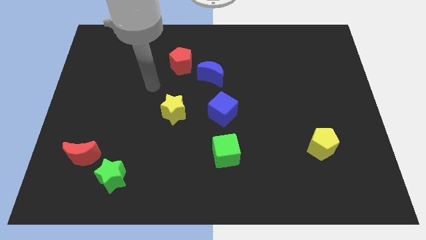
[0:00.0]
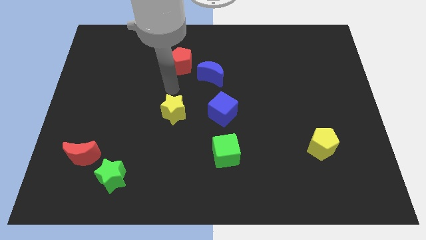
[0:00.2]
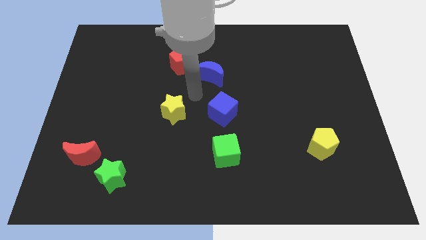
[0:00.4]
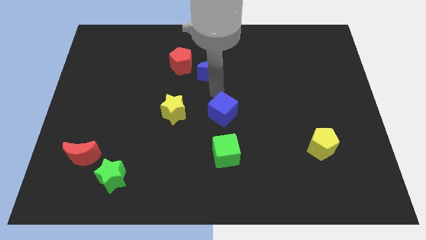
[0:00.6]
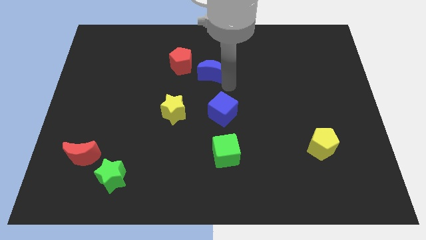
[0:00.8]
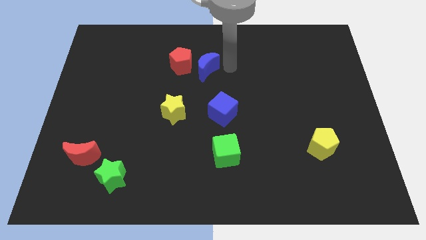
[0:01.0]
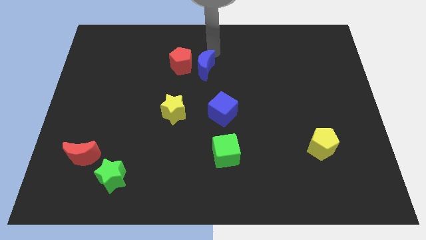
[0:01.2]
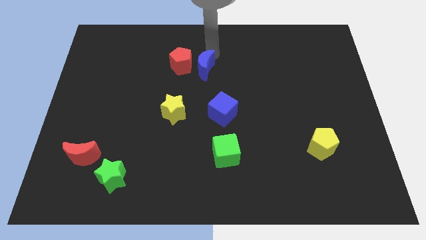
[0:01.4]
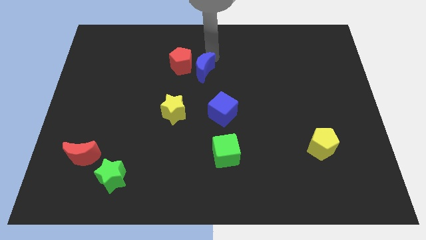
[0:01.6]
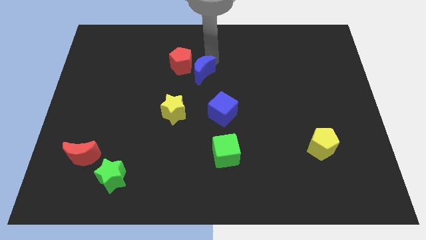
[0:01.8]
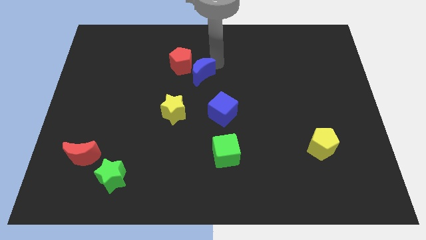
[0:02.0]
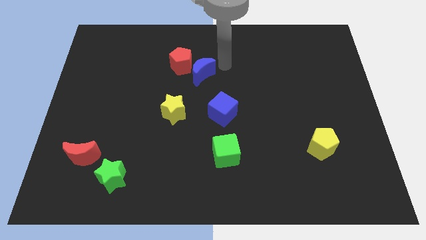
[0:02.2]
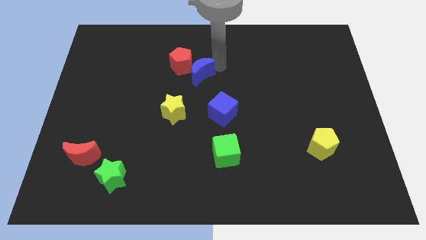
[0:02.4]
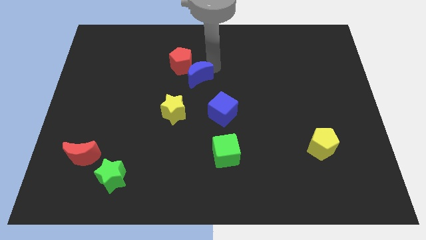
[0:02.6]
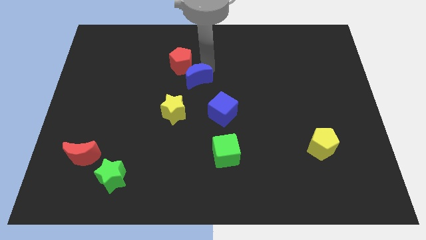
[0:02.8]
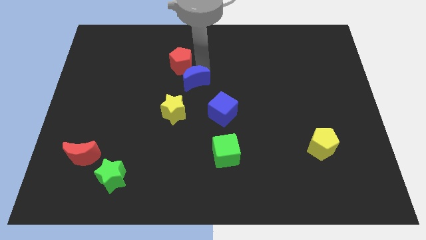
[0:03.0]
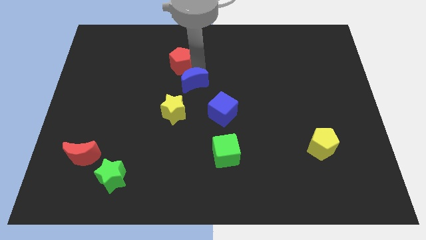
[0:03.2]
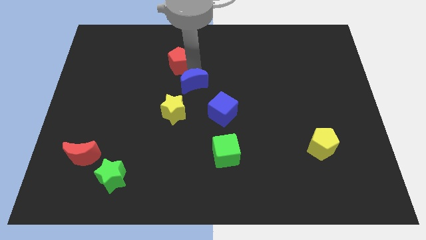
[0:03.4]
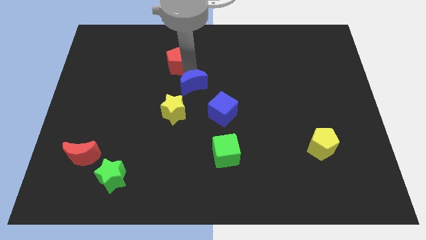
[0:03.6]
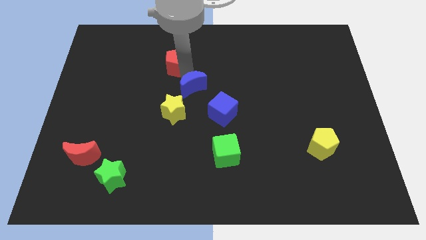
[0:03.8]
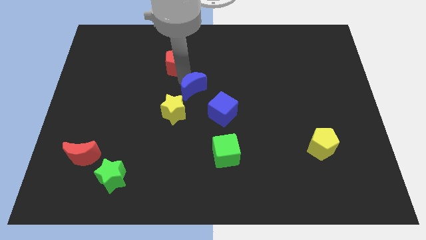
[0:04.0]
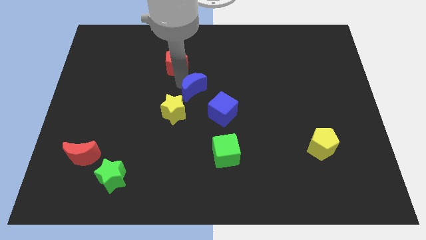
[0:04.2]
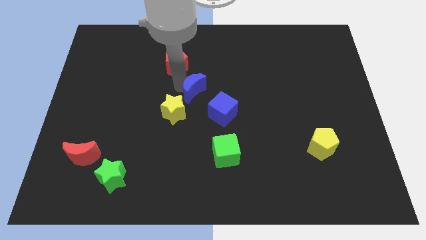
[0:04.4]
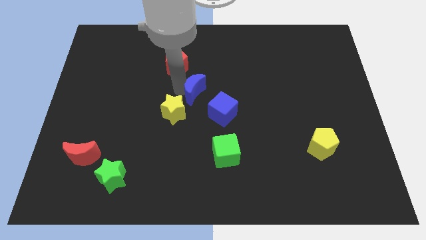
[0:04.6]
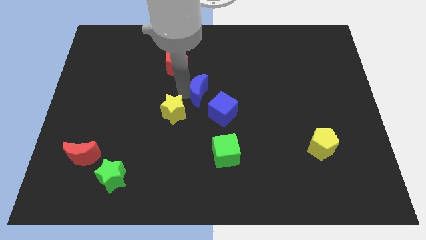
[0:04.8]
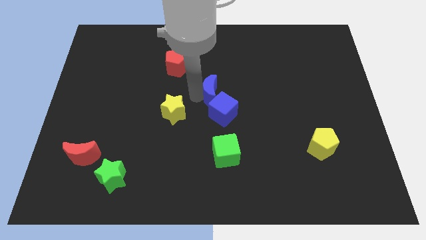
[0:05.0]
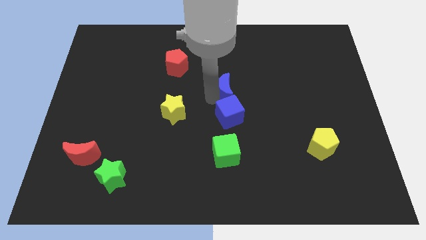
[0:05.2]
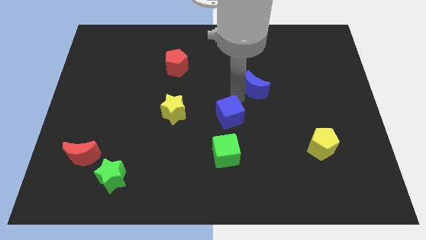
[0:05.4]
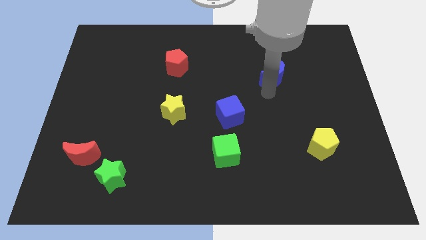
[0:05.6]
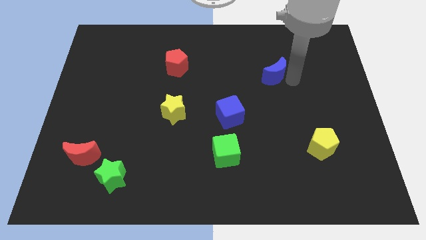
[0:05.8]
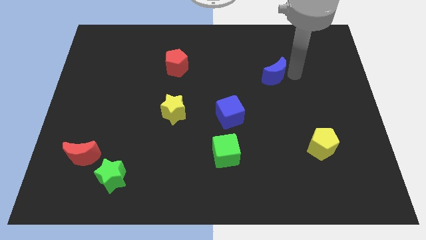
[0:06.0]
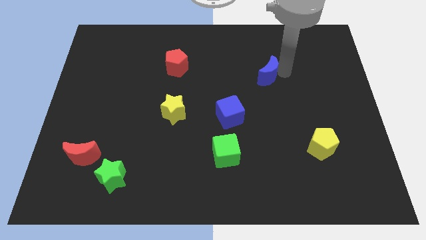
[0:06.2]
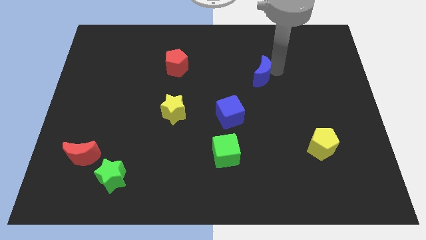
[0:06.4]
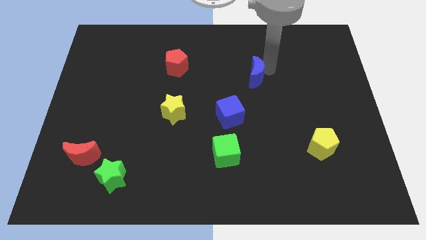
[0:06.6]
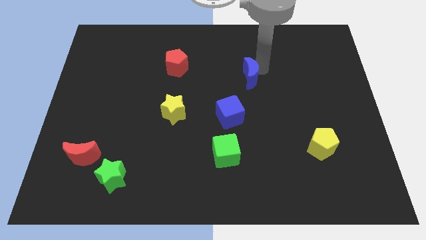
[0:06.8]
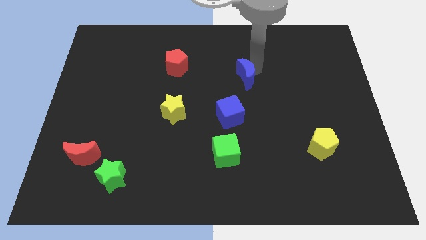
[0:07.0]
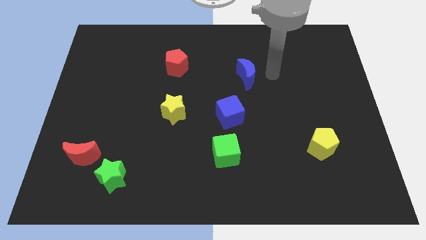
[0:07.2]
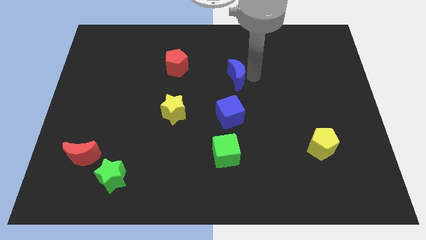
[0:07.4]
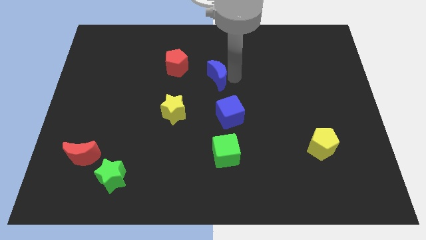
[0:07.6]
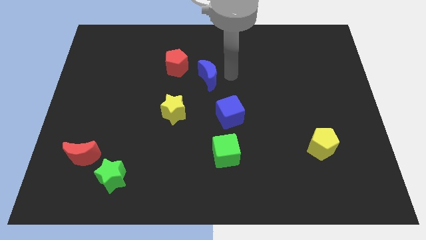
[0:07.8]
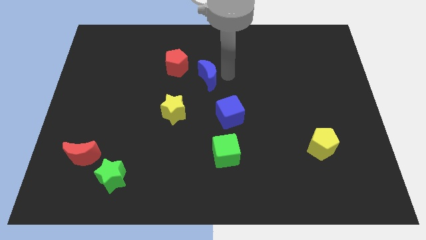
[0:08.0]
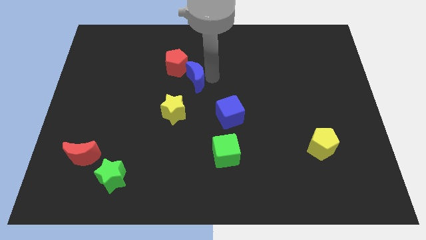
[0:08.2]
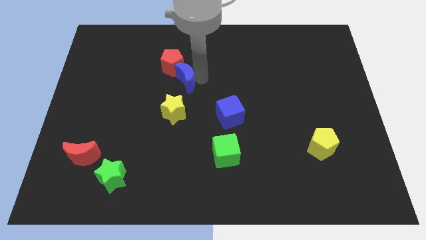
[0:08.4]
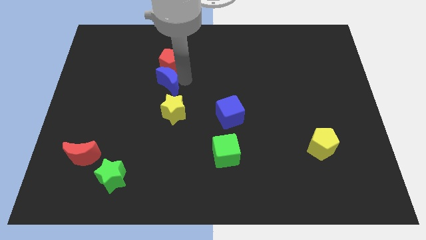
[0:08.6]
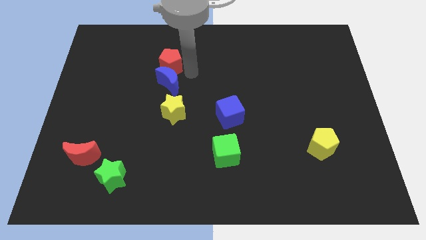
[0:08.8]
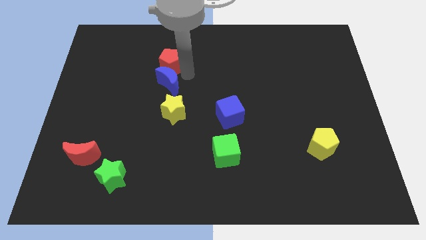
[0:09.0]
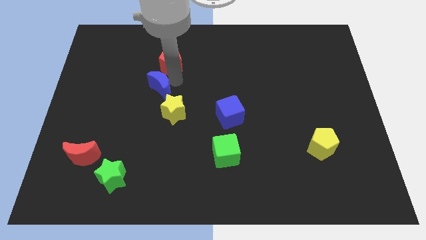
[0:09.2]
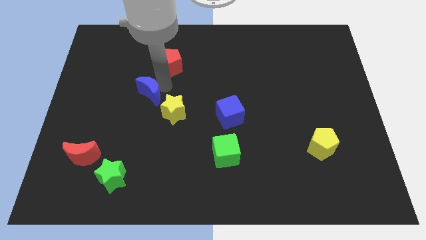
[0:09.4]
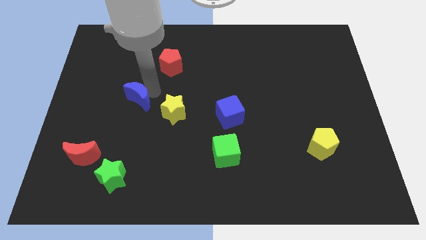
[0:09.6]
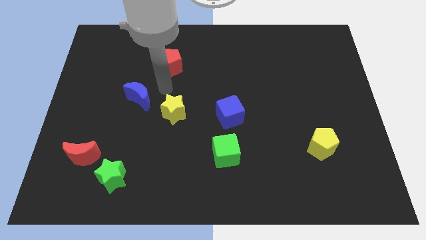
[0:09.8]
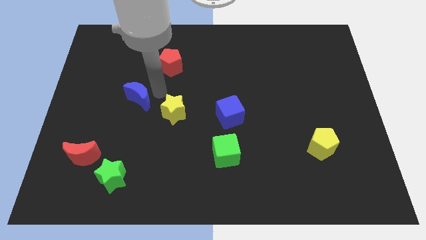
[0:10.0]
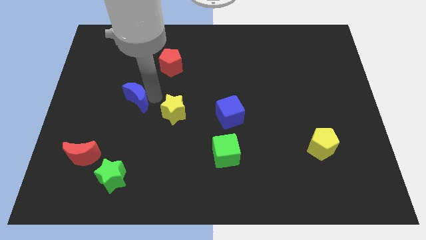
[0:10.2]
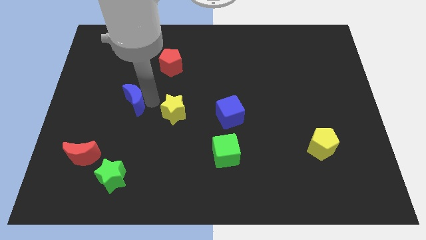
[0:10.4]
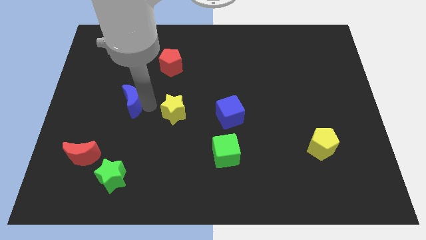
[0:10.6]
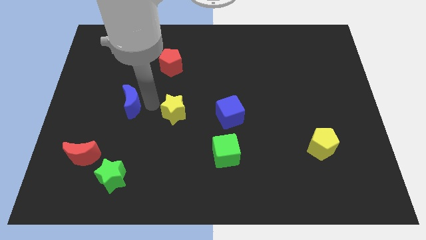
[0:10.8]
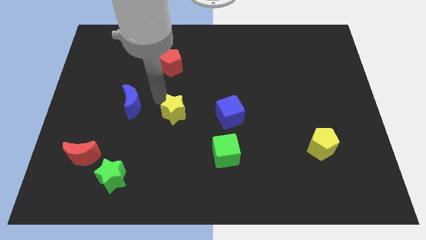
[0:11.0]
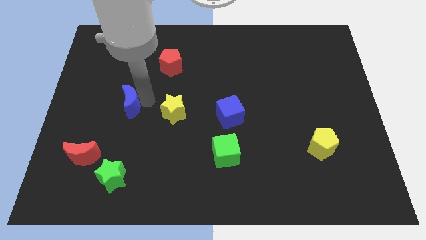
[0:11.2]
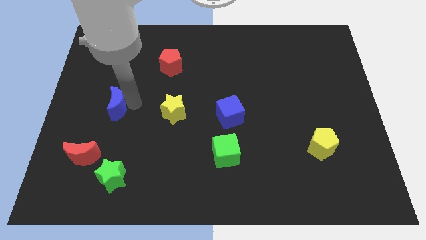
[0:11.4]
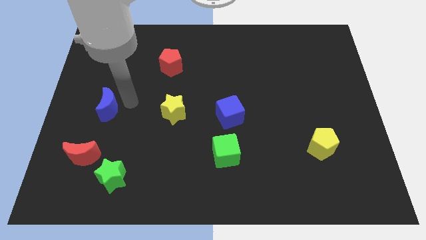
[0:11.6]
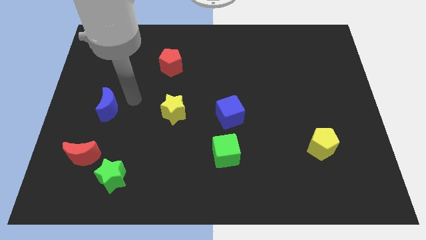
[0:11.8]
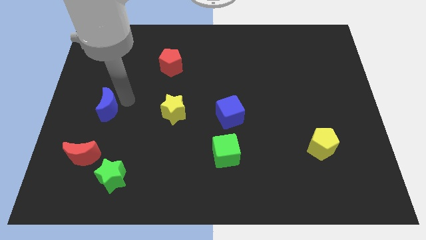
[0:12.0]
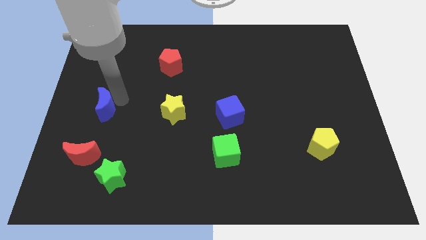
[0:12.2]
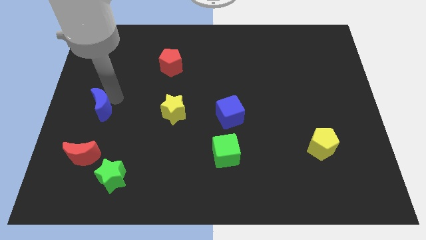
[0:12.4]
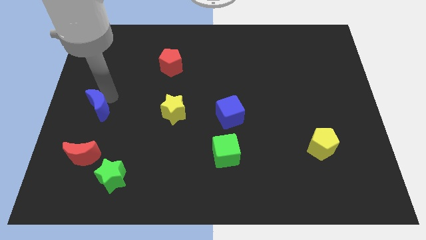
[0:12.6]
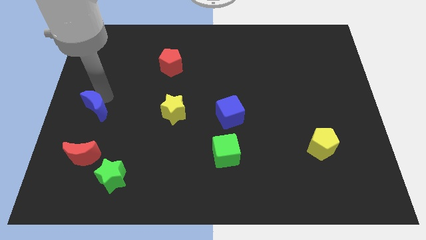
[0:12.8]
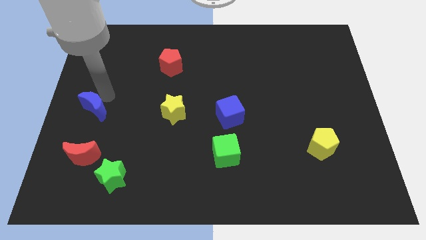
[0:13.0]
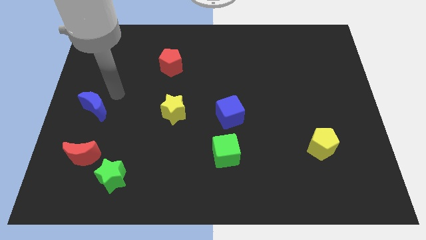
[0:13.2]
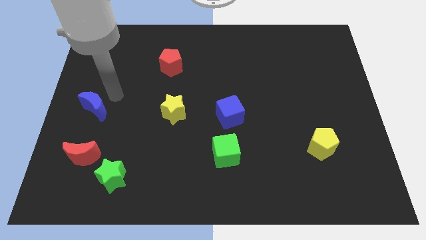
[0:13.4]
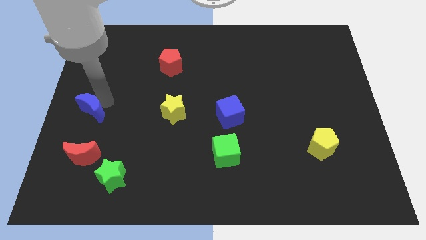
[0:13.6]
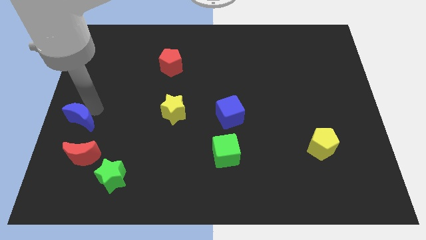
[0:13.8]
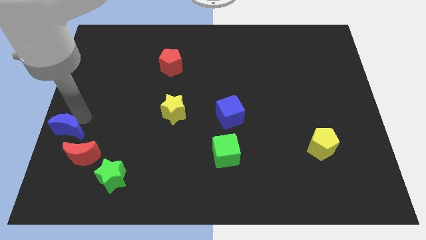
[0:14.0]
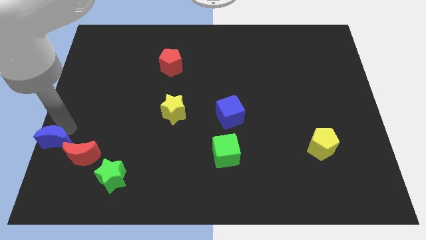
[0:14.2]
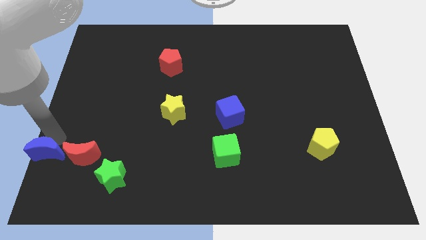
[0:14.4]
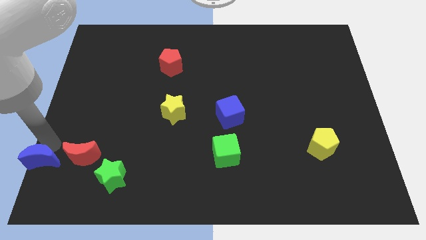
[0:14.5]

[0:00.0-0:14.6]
move the blue moon to the bottom left corner
